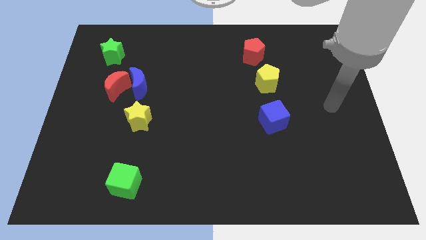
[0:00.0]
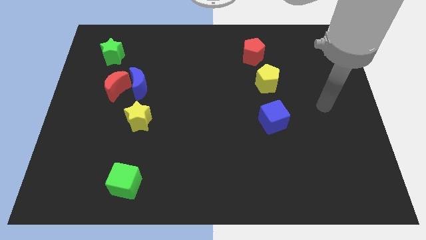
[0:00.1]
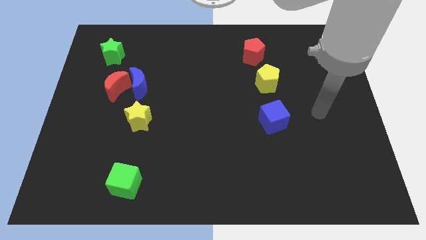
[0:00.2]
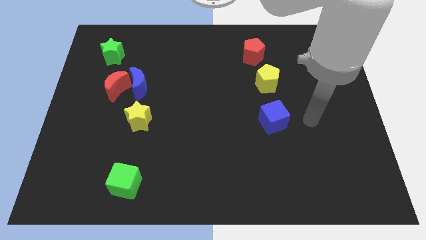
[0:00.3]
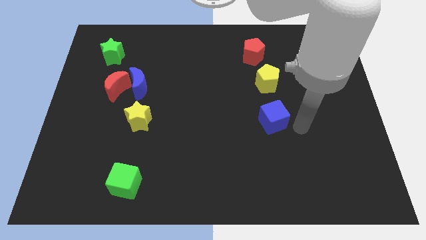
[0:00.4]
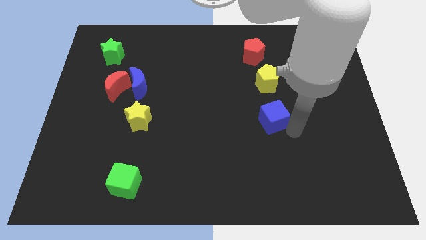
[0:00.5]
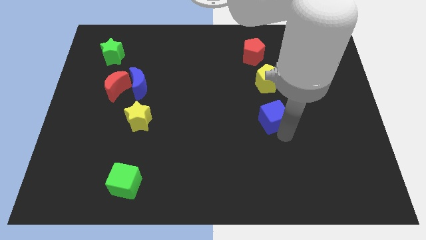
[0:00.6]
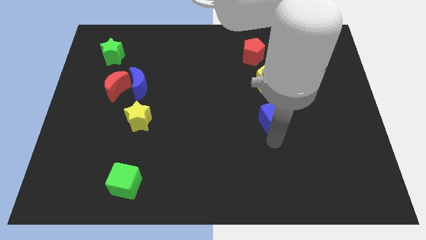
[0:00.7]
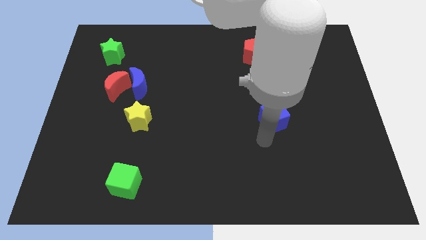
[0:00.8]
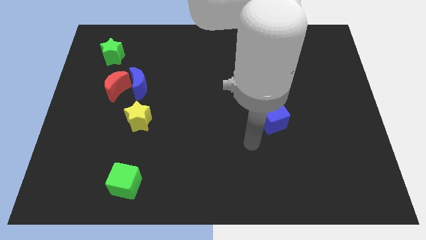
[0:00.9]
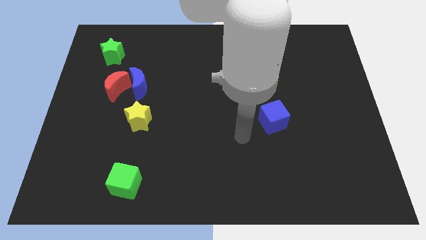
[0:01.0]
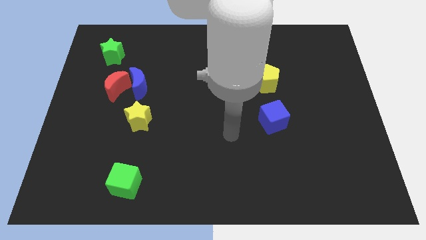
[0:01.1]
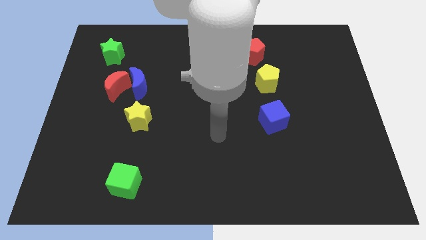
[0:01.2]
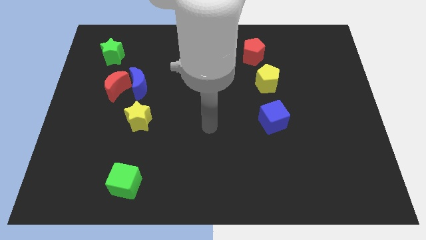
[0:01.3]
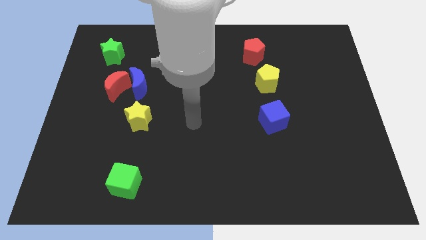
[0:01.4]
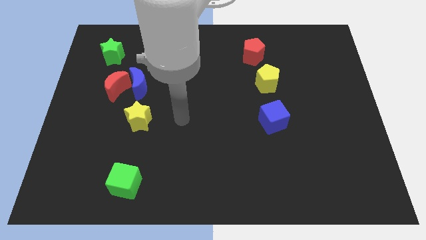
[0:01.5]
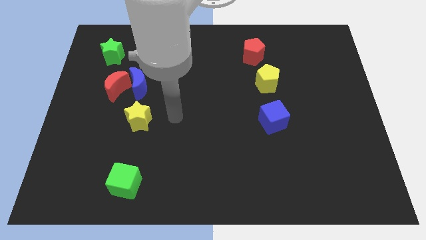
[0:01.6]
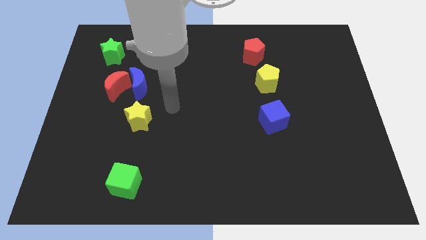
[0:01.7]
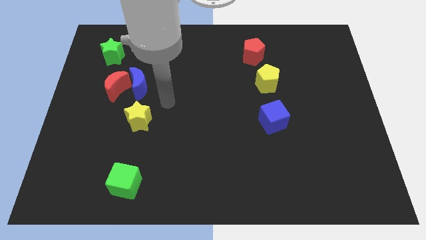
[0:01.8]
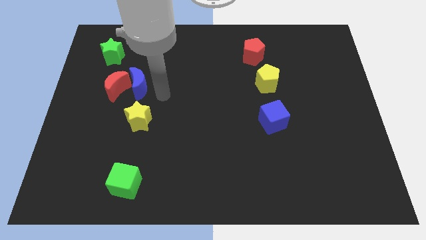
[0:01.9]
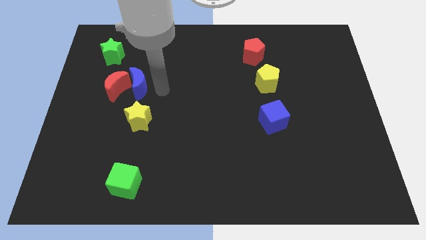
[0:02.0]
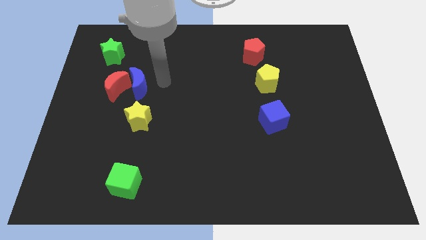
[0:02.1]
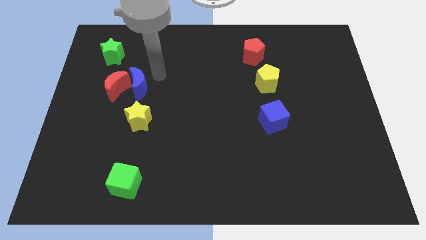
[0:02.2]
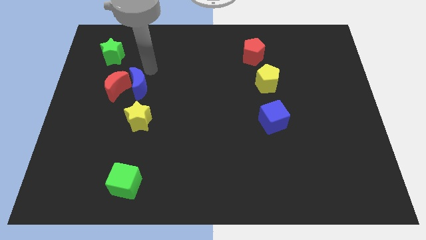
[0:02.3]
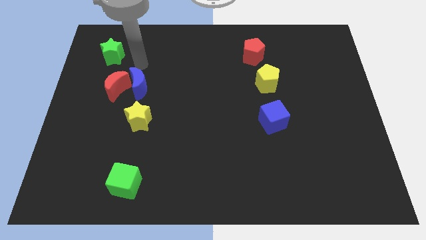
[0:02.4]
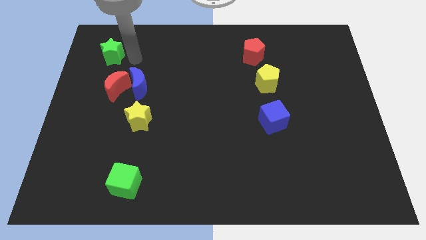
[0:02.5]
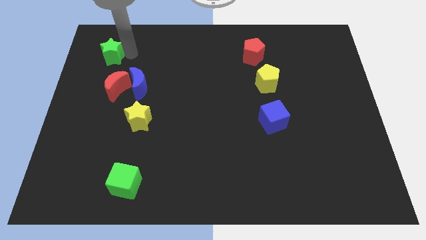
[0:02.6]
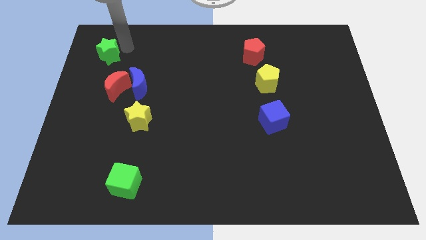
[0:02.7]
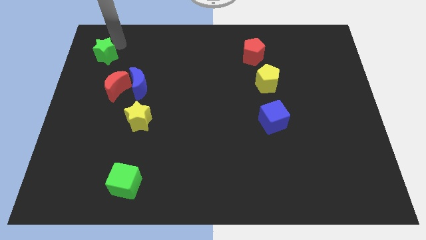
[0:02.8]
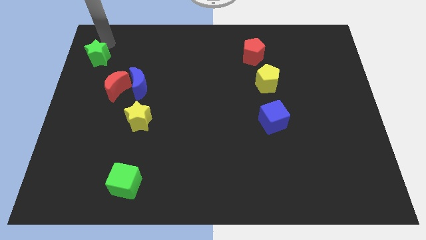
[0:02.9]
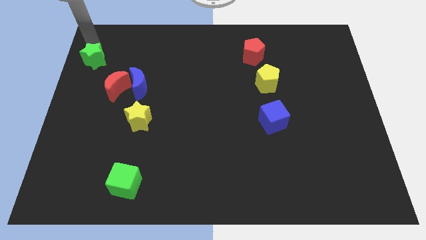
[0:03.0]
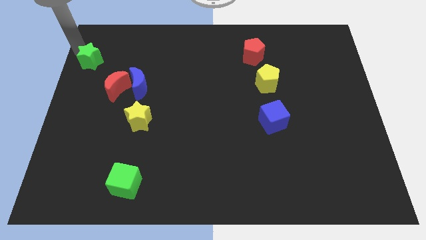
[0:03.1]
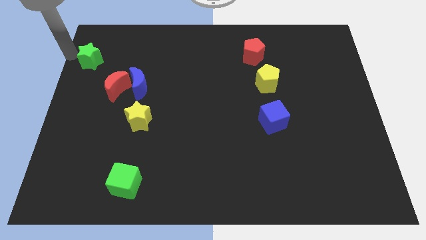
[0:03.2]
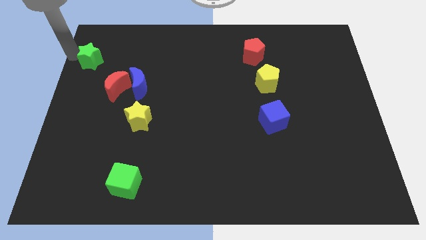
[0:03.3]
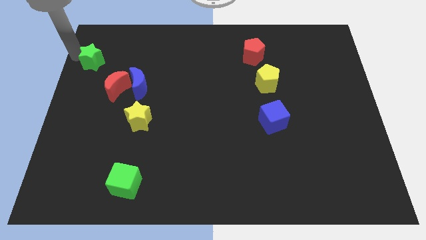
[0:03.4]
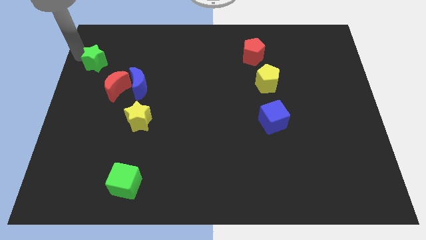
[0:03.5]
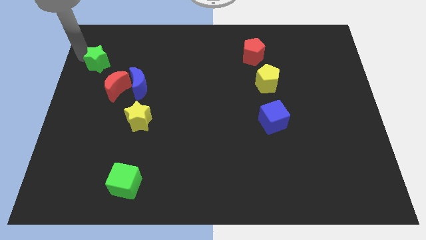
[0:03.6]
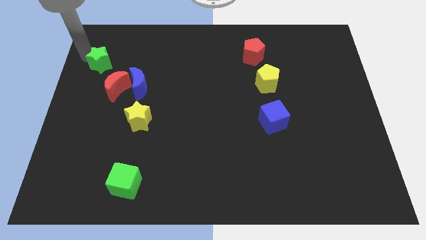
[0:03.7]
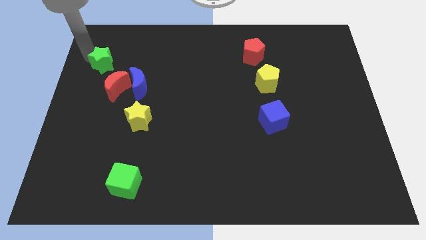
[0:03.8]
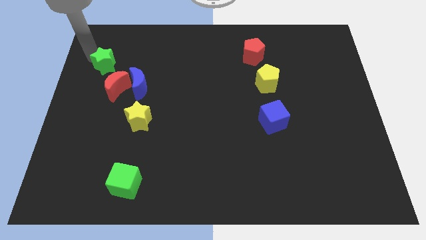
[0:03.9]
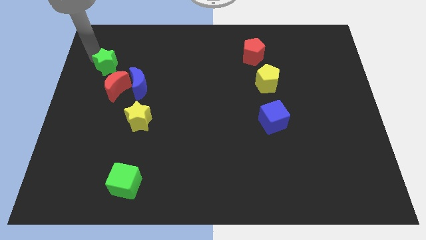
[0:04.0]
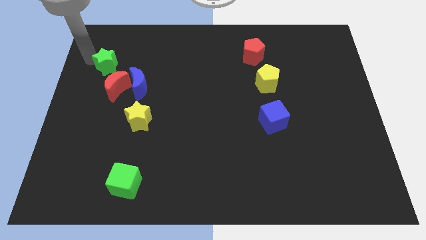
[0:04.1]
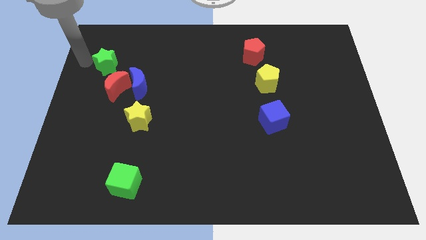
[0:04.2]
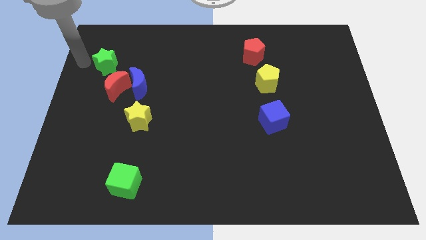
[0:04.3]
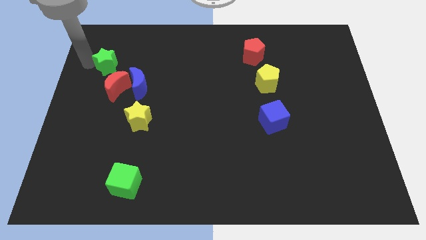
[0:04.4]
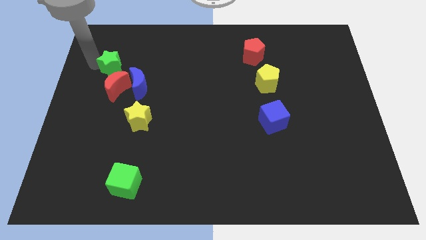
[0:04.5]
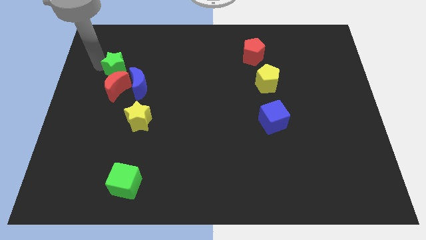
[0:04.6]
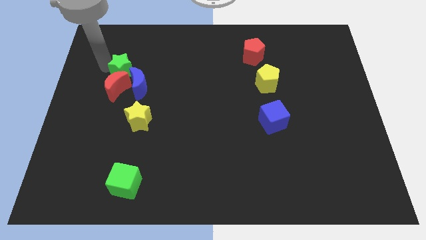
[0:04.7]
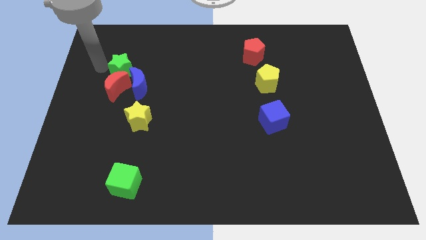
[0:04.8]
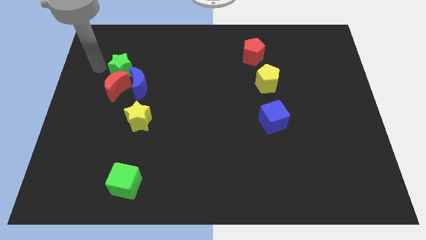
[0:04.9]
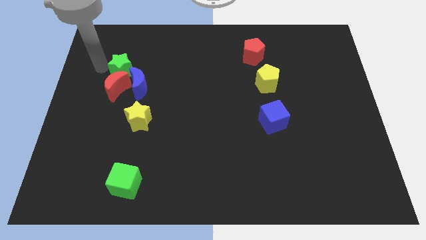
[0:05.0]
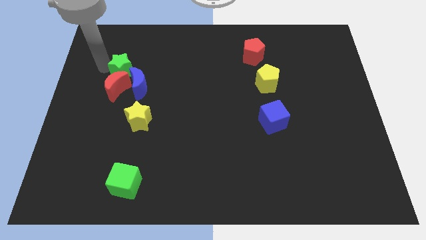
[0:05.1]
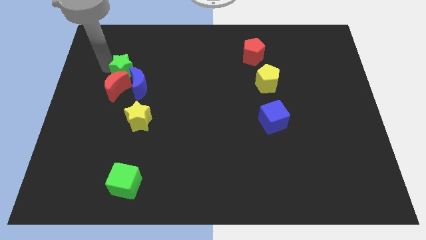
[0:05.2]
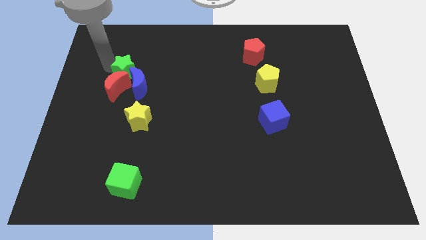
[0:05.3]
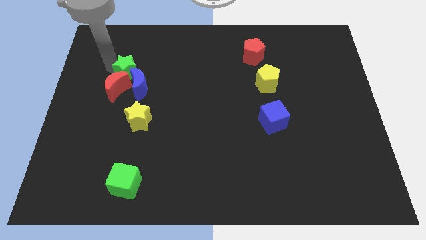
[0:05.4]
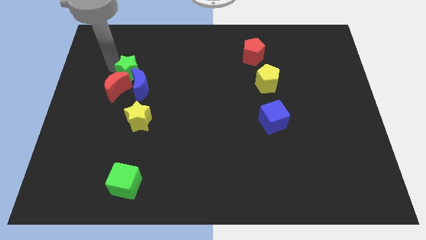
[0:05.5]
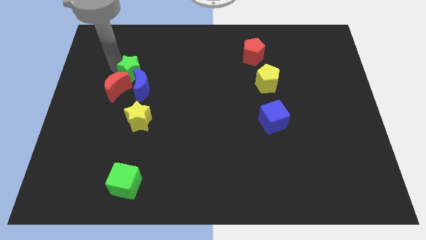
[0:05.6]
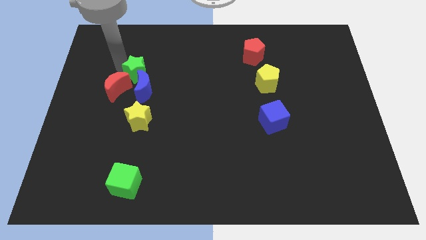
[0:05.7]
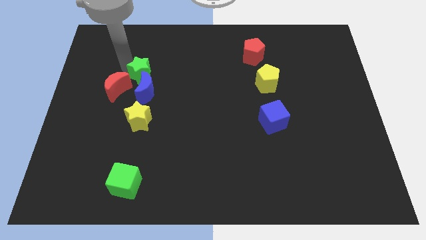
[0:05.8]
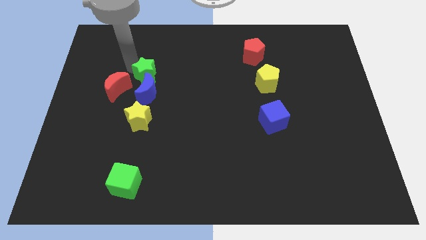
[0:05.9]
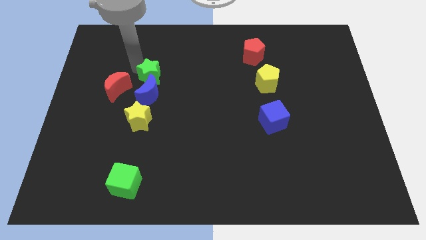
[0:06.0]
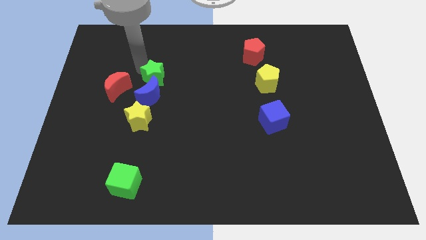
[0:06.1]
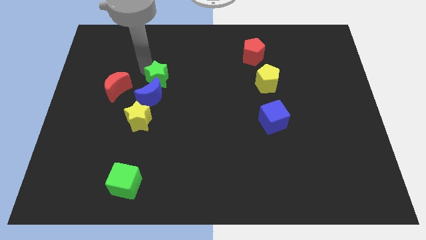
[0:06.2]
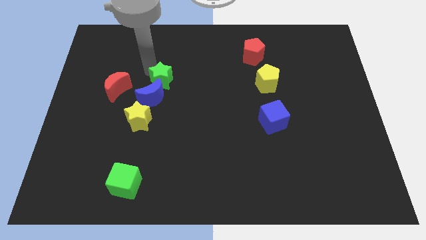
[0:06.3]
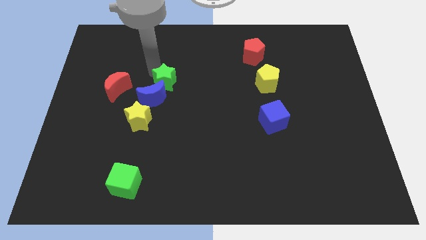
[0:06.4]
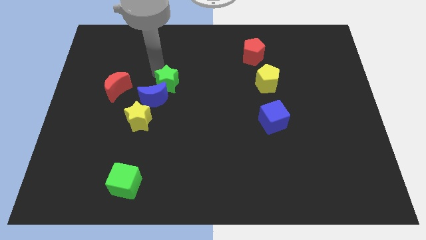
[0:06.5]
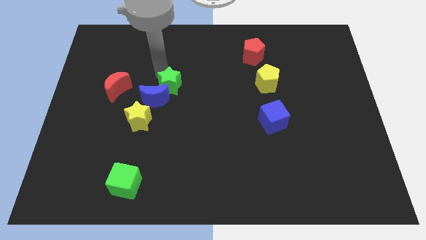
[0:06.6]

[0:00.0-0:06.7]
slide the green star right of the blue moon
